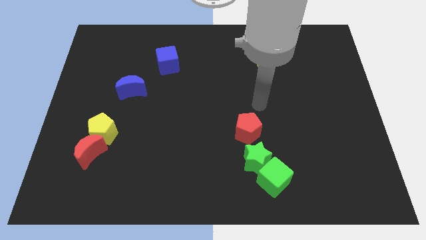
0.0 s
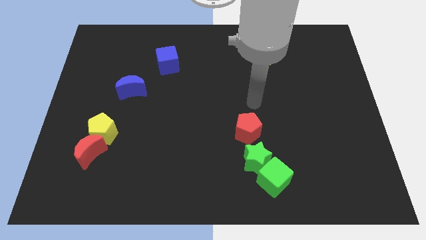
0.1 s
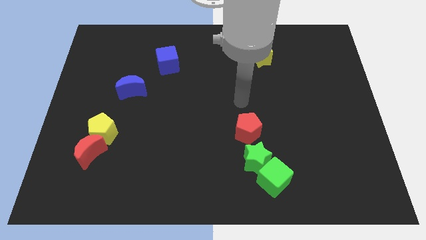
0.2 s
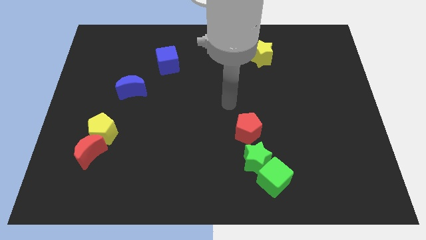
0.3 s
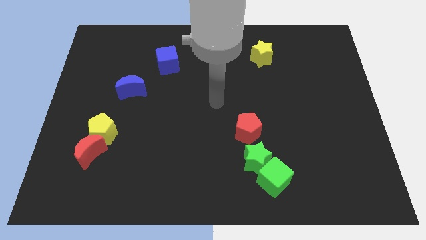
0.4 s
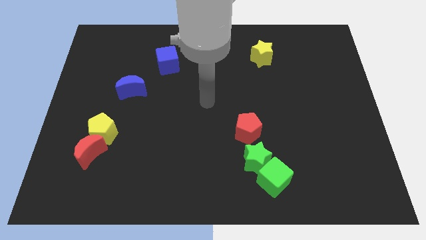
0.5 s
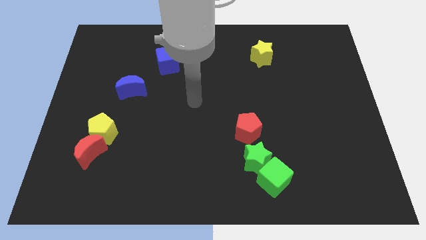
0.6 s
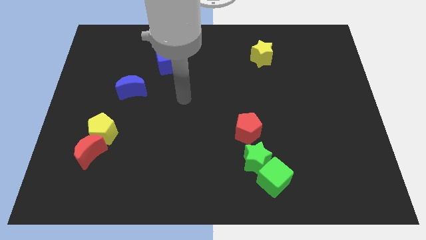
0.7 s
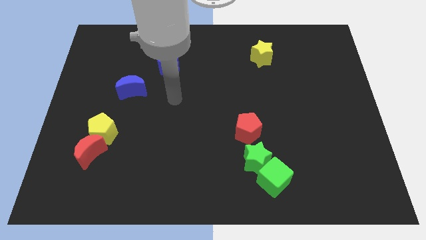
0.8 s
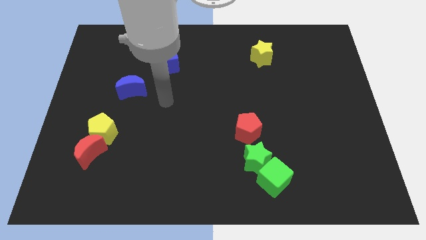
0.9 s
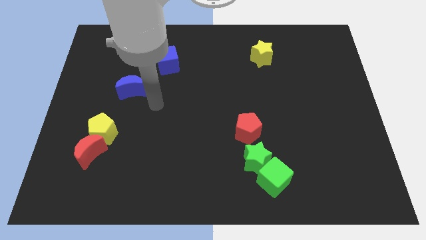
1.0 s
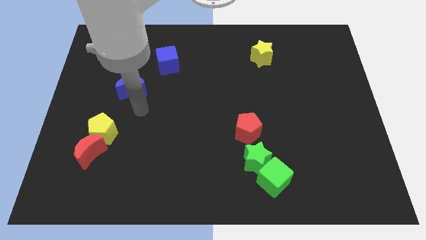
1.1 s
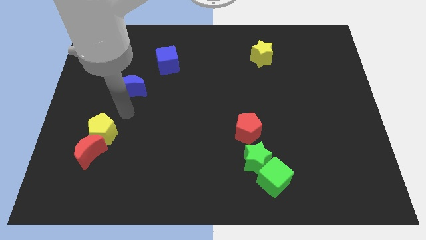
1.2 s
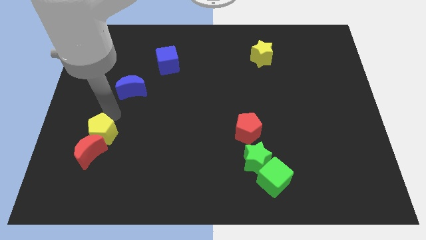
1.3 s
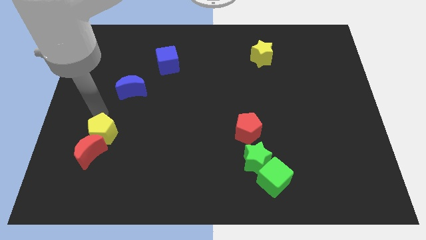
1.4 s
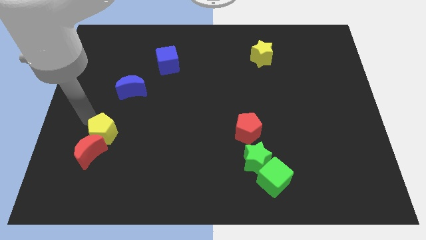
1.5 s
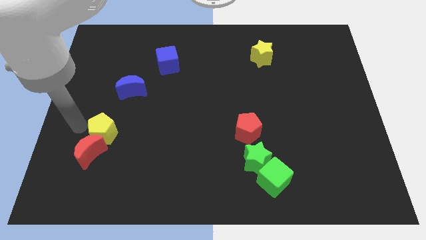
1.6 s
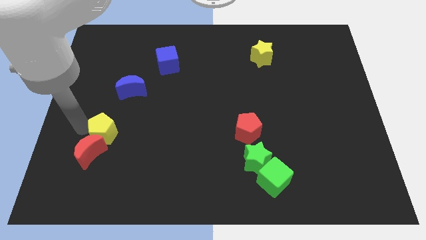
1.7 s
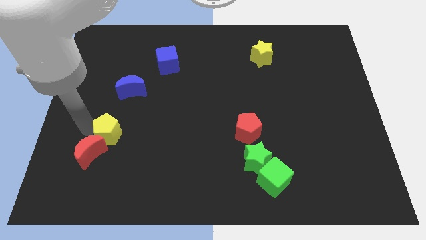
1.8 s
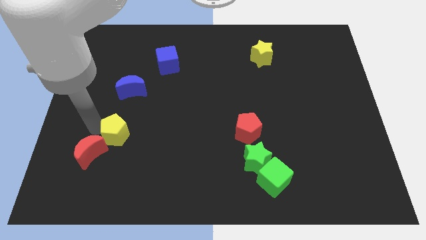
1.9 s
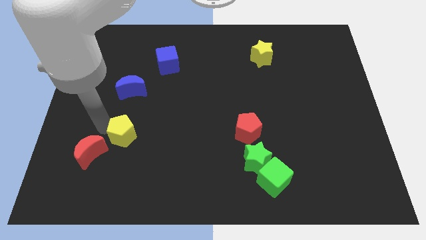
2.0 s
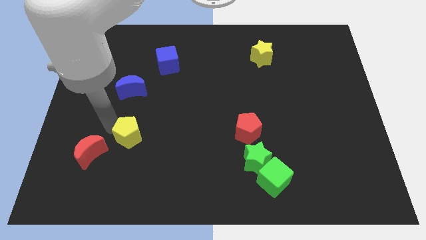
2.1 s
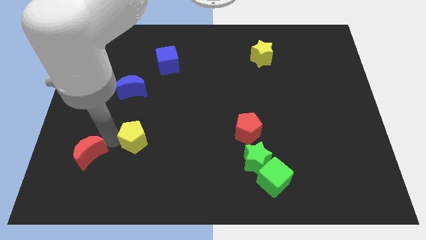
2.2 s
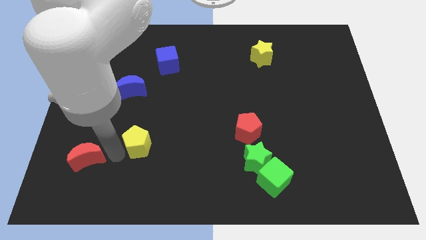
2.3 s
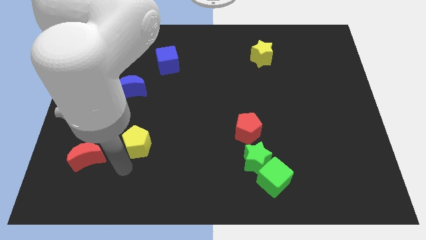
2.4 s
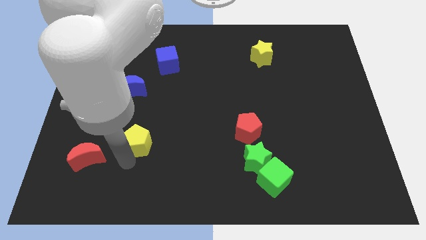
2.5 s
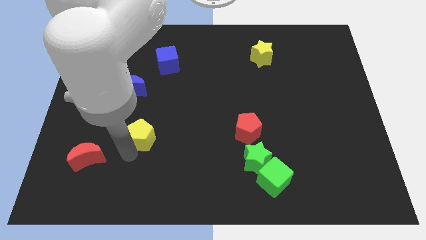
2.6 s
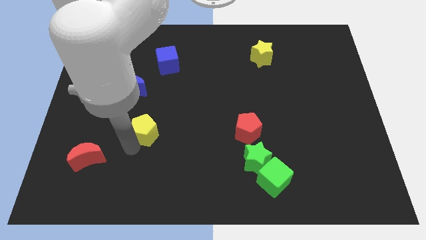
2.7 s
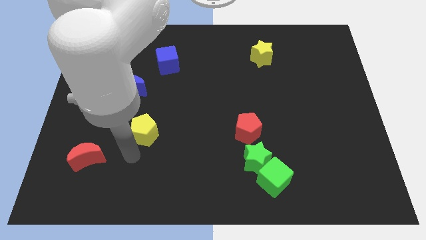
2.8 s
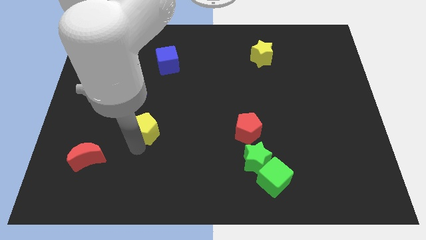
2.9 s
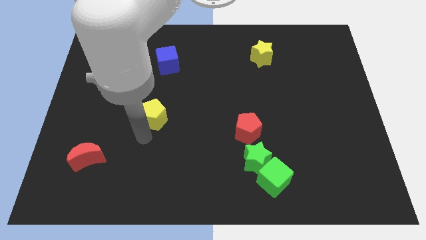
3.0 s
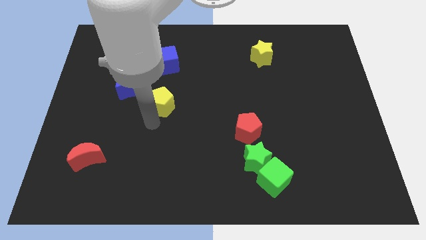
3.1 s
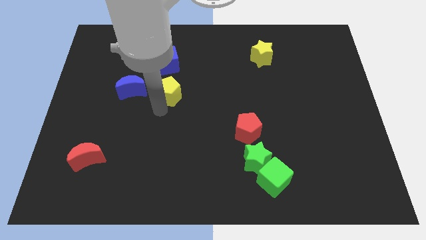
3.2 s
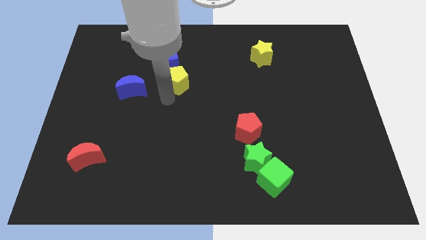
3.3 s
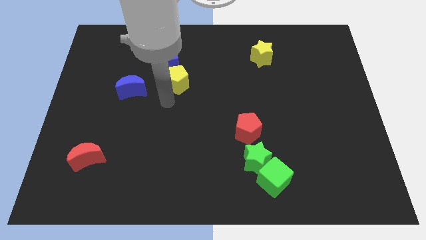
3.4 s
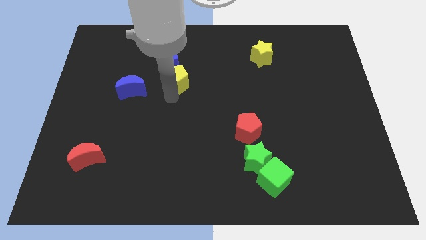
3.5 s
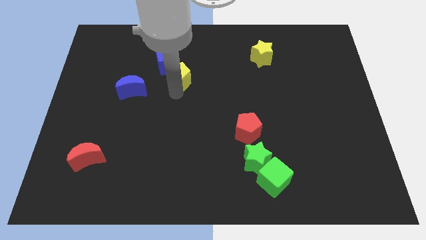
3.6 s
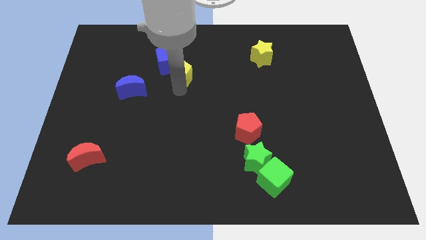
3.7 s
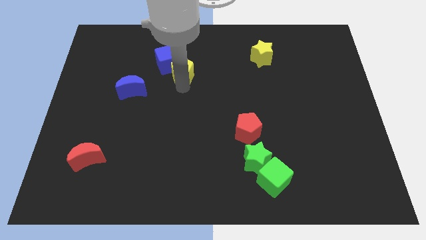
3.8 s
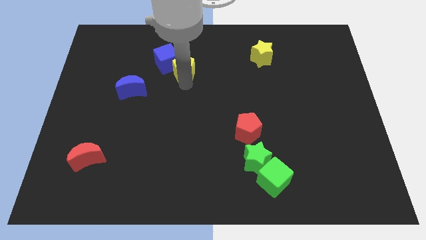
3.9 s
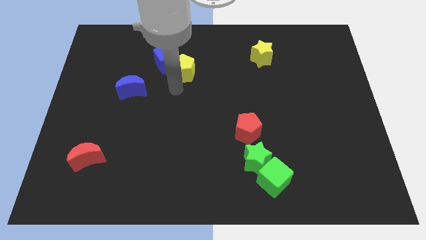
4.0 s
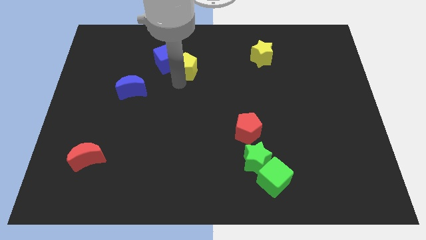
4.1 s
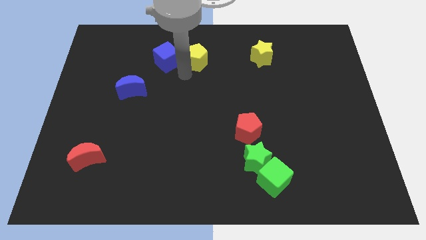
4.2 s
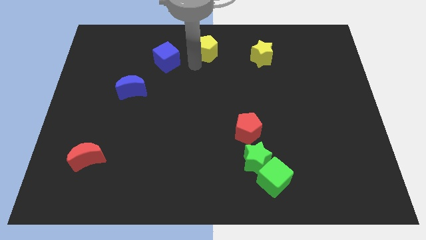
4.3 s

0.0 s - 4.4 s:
slide the yellow pentagon to the top

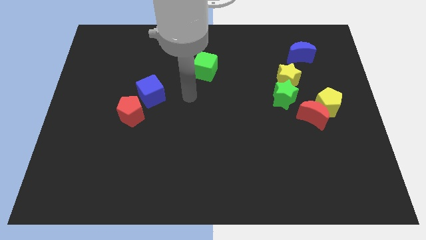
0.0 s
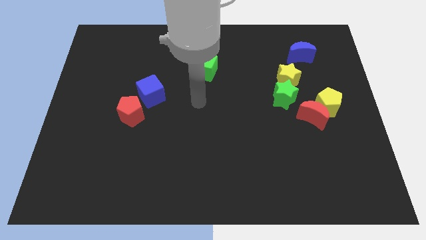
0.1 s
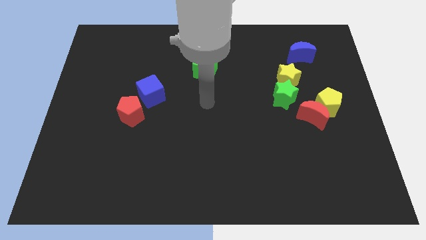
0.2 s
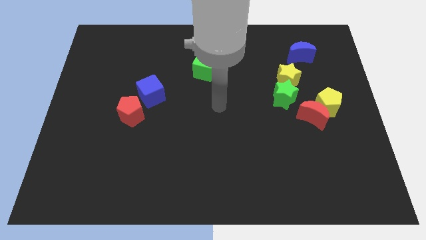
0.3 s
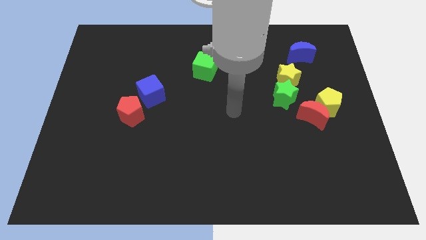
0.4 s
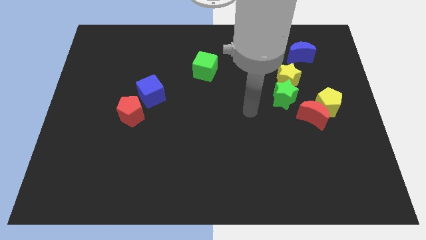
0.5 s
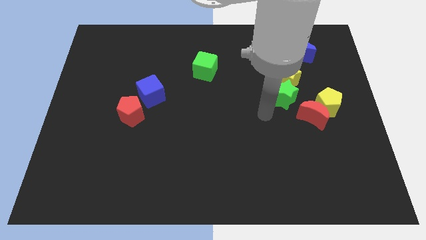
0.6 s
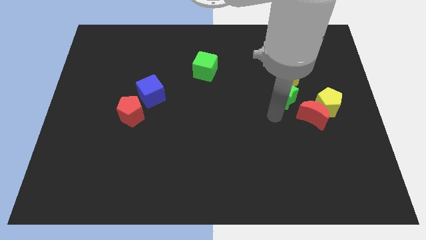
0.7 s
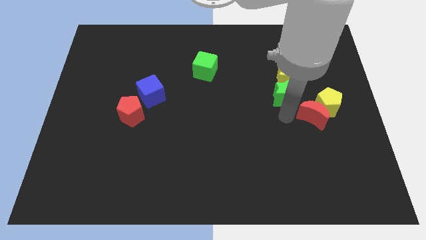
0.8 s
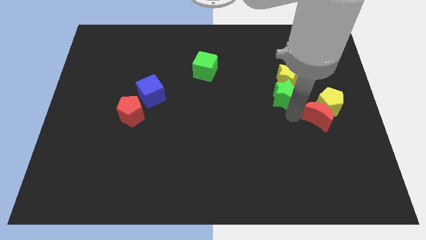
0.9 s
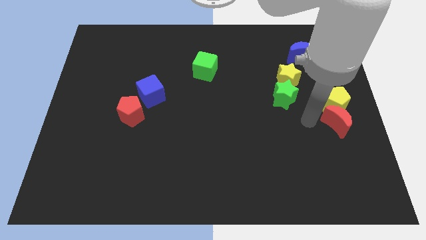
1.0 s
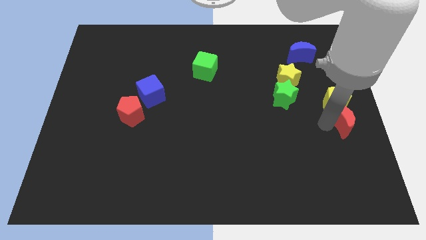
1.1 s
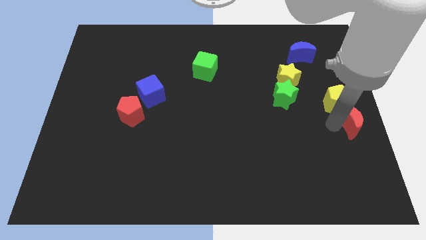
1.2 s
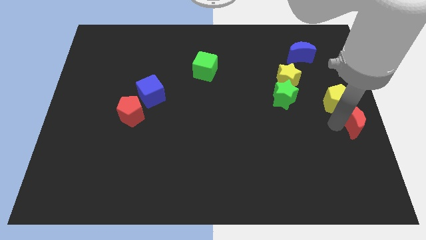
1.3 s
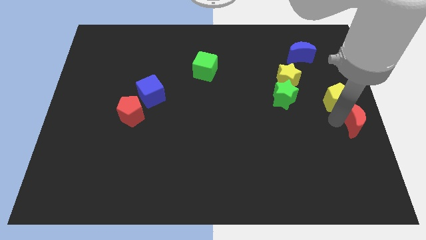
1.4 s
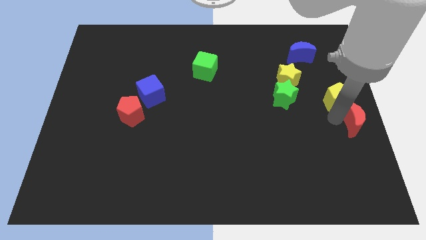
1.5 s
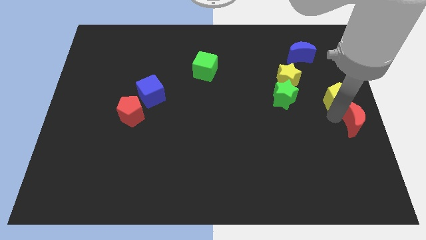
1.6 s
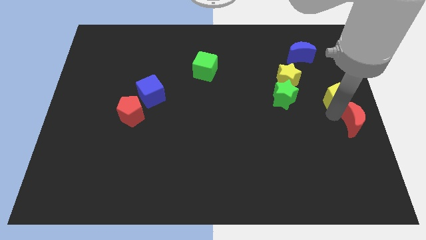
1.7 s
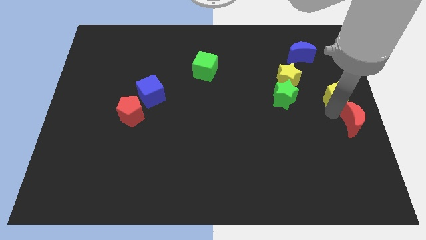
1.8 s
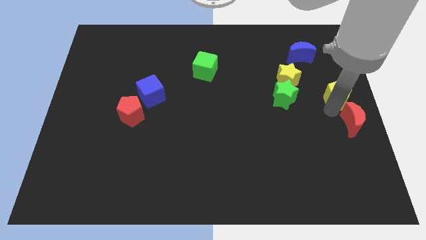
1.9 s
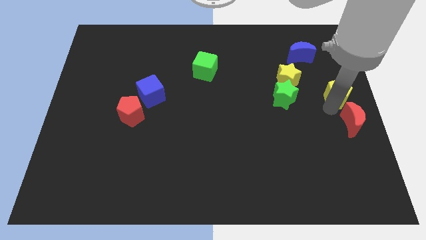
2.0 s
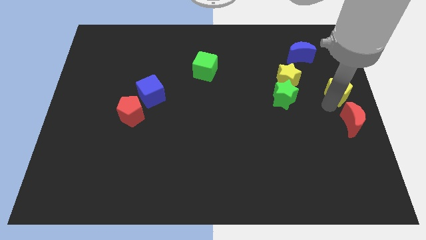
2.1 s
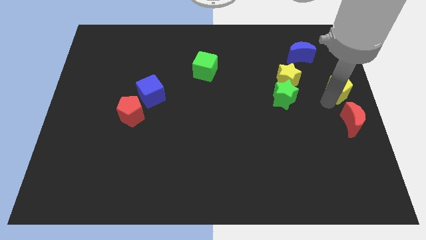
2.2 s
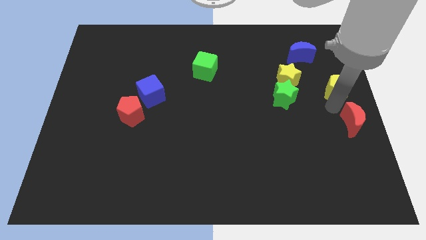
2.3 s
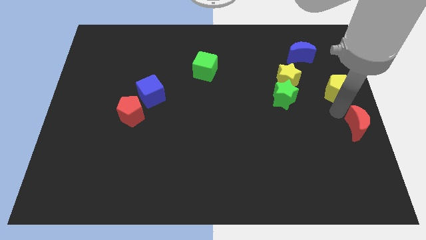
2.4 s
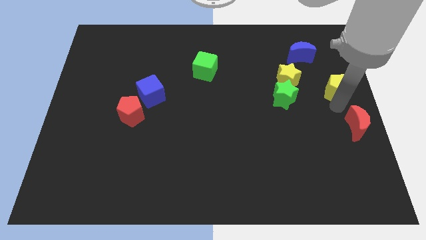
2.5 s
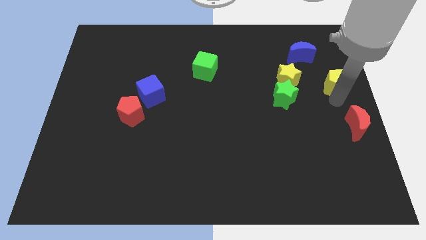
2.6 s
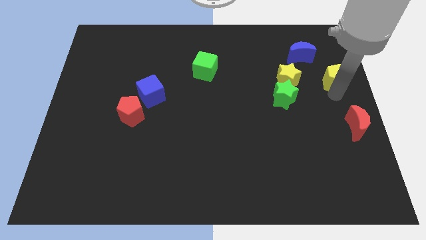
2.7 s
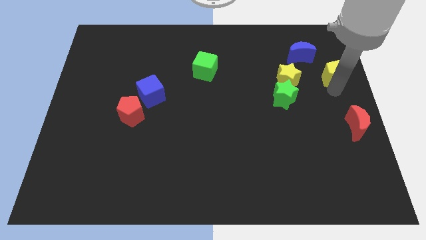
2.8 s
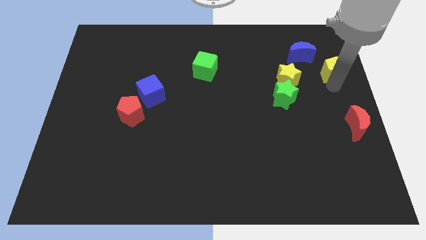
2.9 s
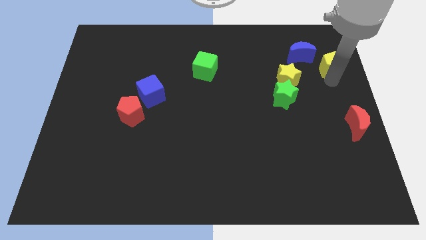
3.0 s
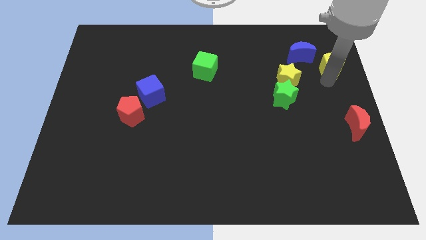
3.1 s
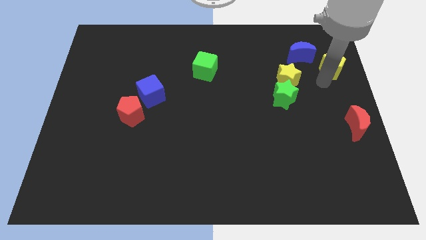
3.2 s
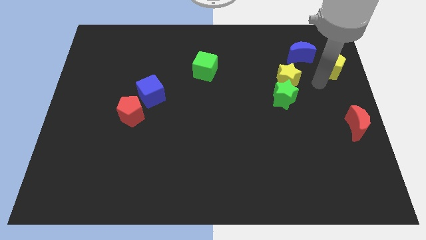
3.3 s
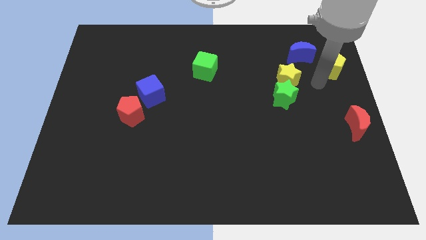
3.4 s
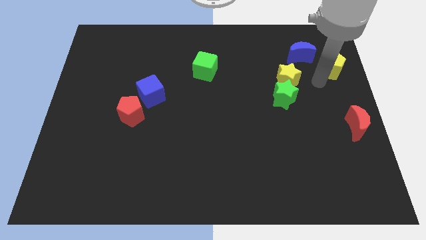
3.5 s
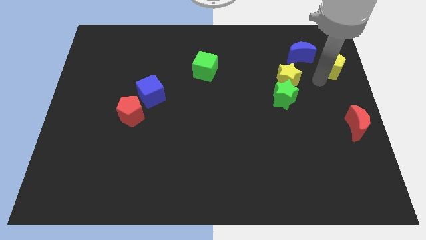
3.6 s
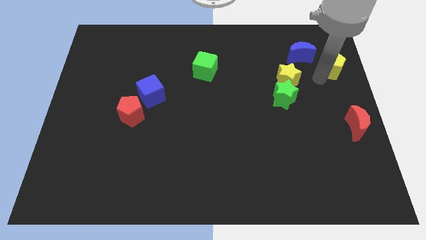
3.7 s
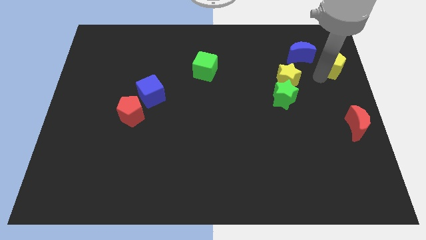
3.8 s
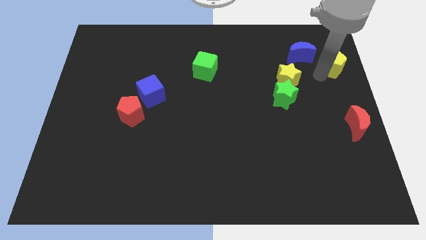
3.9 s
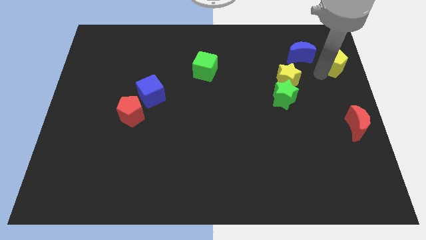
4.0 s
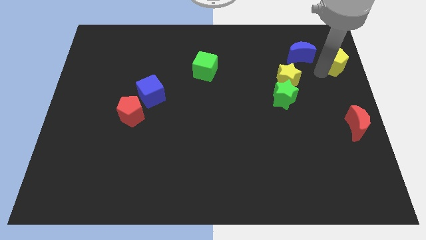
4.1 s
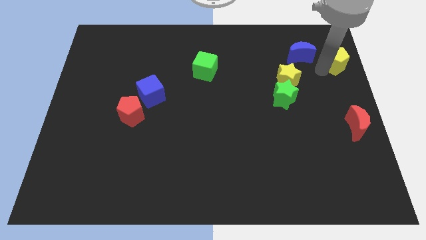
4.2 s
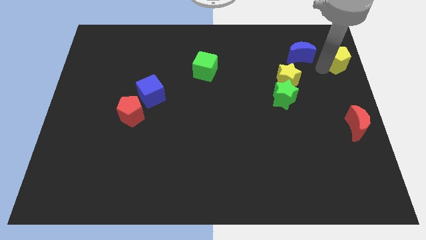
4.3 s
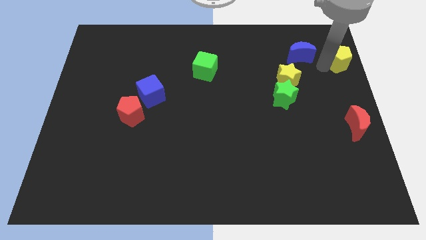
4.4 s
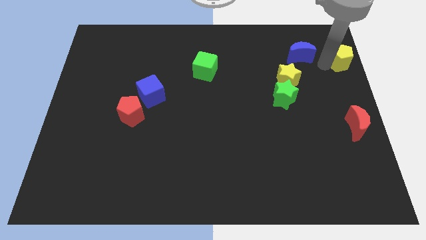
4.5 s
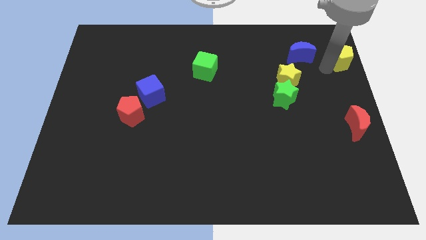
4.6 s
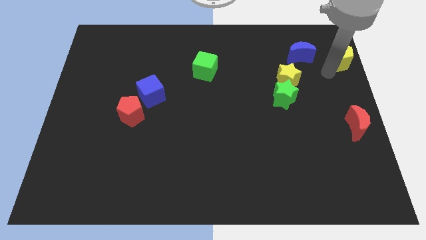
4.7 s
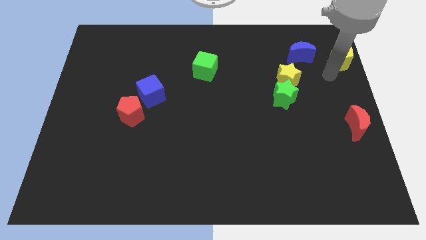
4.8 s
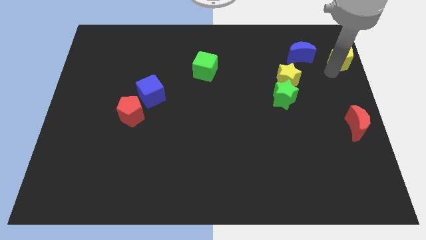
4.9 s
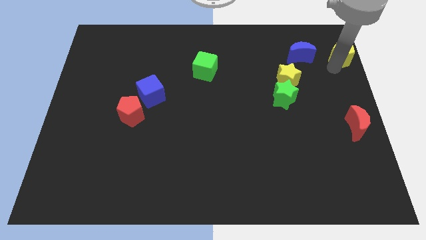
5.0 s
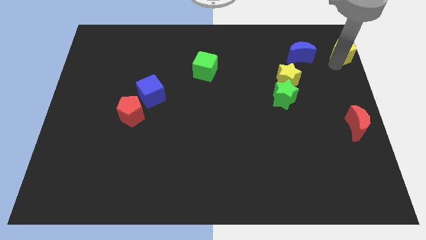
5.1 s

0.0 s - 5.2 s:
slide the yellow pentagon to the top right of the board
